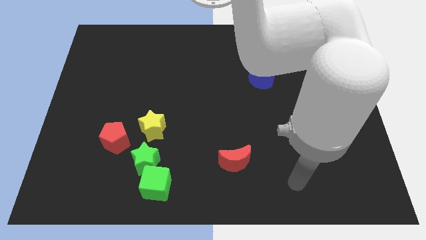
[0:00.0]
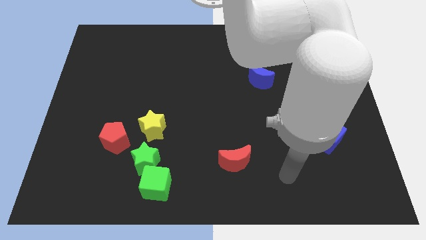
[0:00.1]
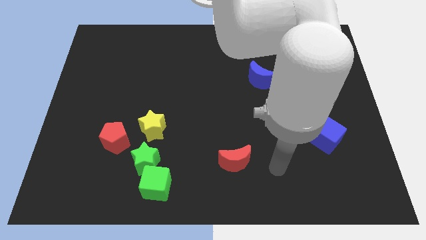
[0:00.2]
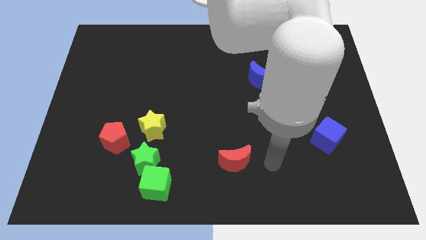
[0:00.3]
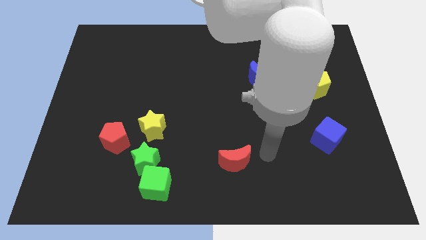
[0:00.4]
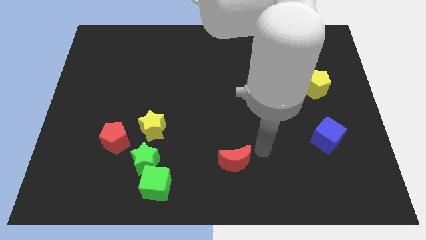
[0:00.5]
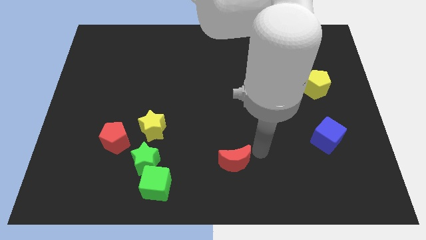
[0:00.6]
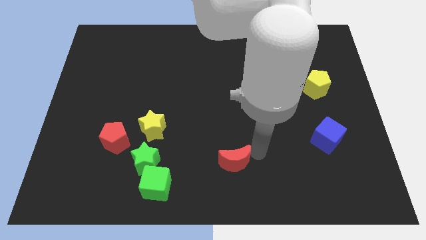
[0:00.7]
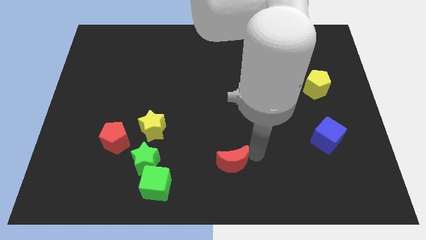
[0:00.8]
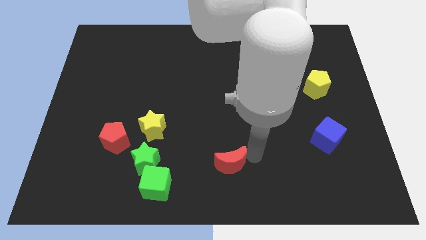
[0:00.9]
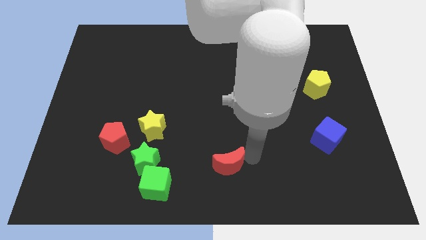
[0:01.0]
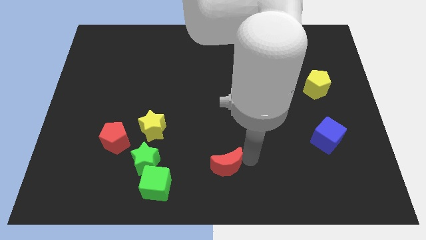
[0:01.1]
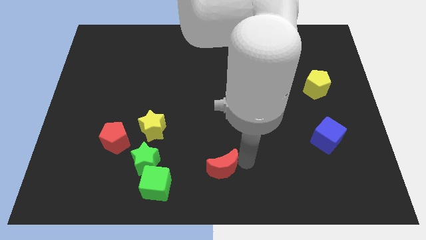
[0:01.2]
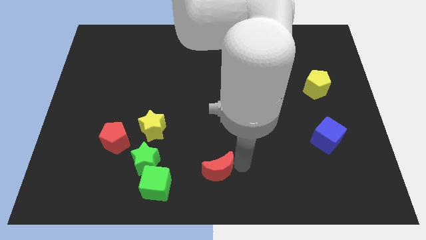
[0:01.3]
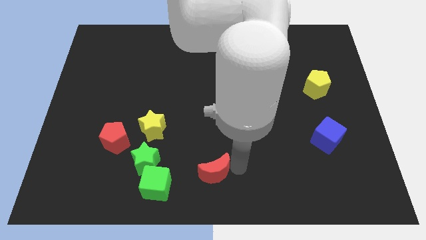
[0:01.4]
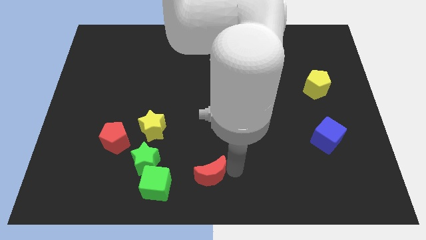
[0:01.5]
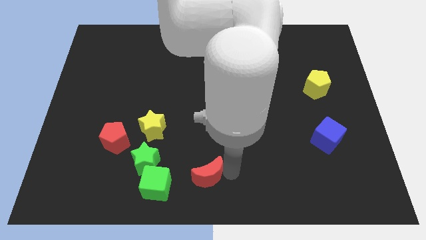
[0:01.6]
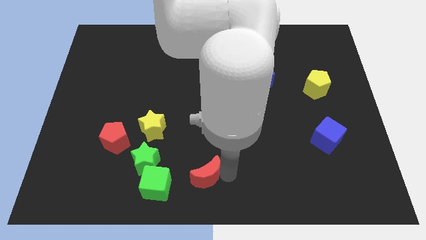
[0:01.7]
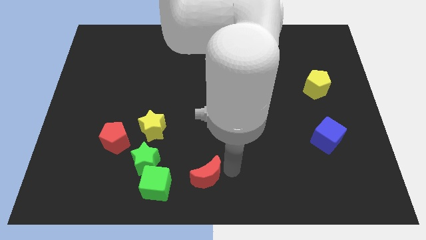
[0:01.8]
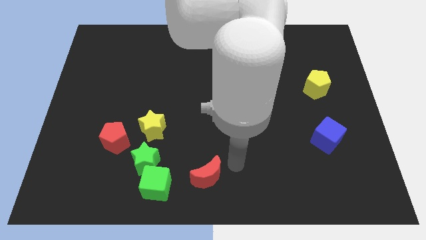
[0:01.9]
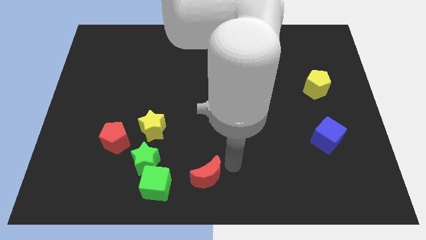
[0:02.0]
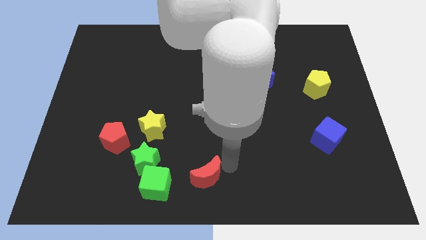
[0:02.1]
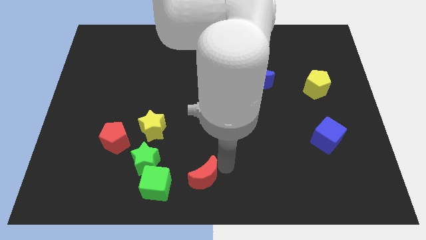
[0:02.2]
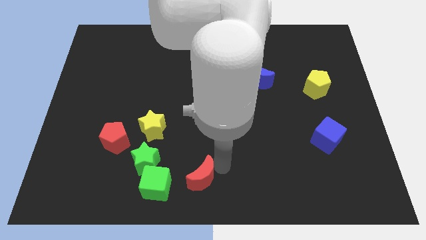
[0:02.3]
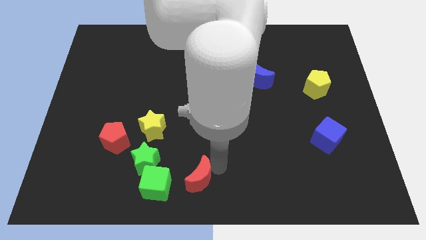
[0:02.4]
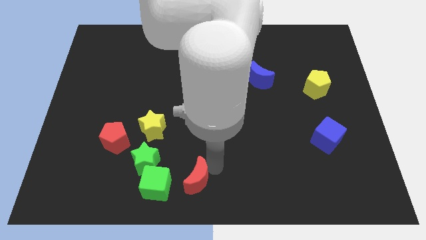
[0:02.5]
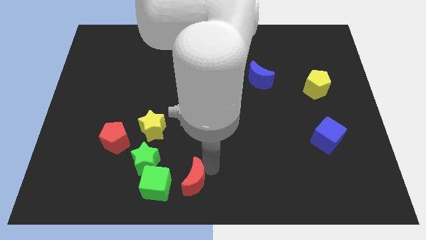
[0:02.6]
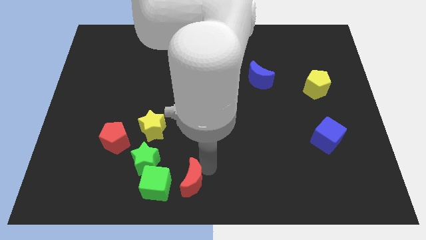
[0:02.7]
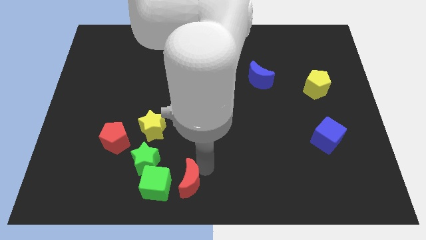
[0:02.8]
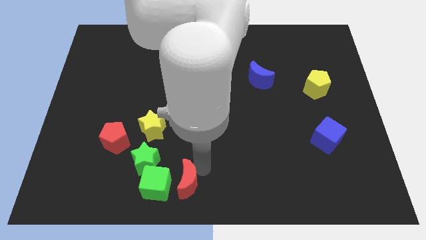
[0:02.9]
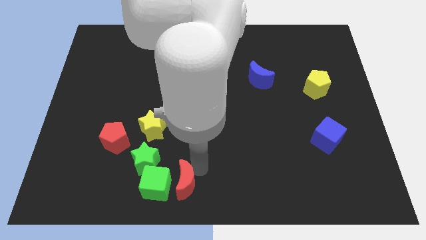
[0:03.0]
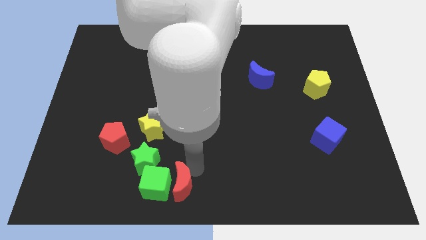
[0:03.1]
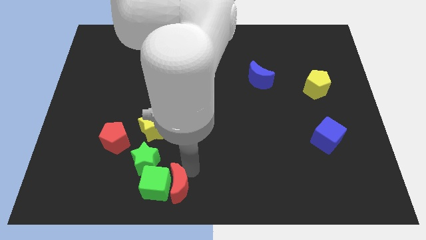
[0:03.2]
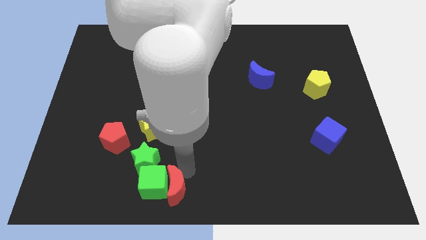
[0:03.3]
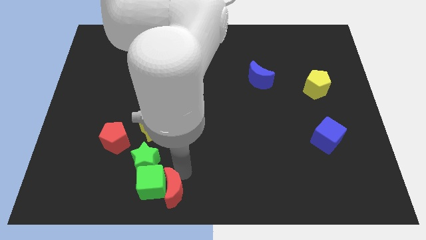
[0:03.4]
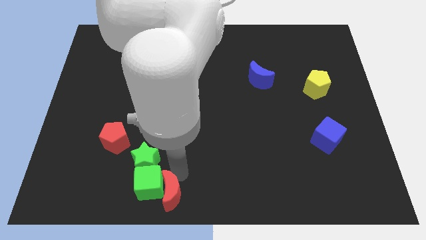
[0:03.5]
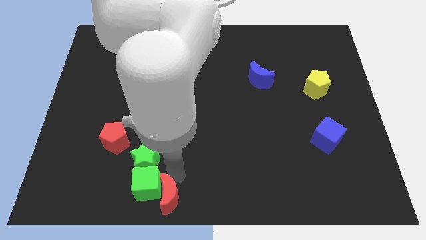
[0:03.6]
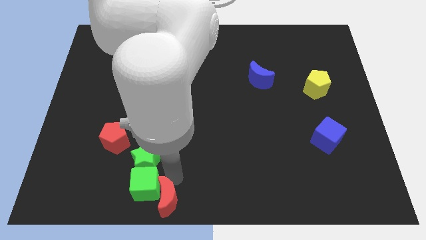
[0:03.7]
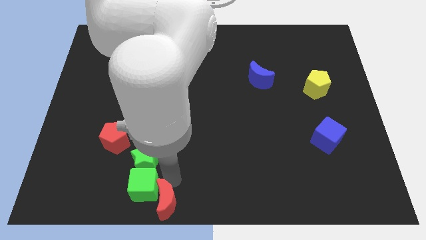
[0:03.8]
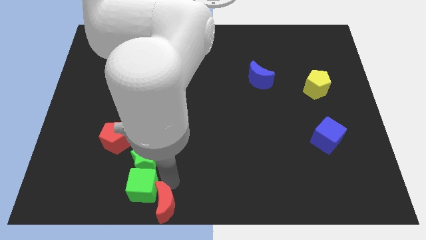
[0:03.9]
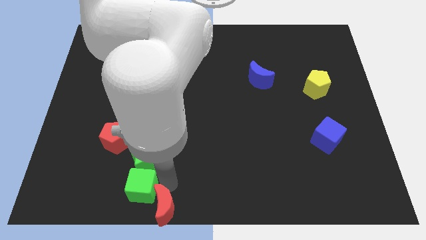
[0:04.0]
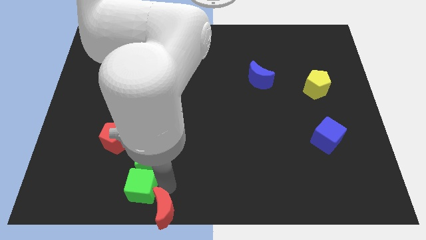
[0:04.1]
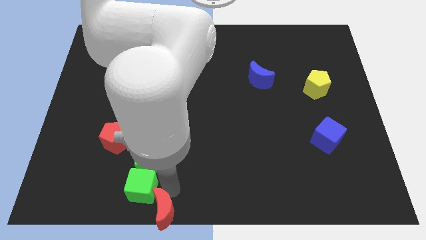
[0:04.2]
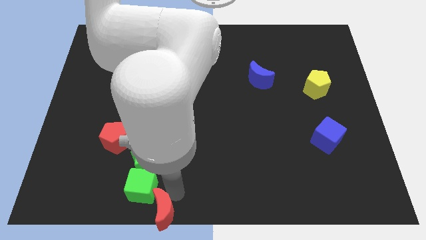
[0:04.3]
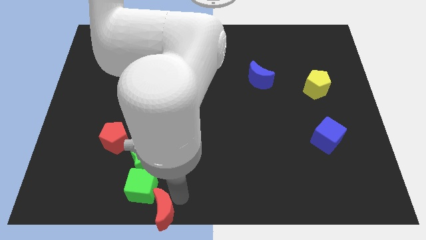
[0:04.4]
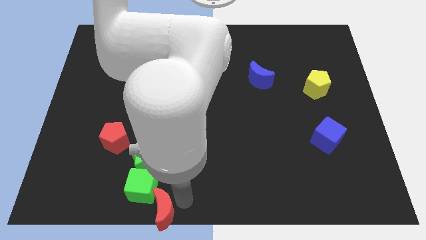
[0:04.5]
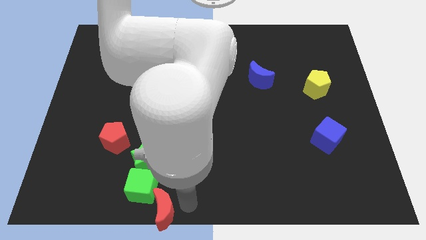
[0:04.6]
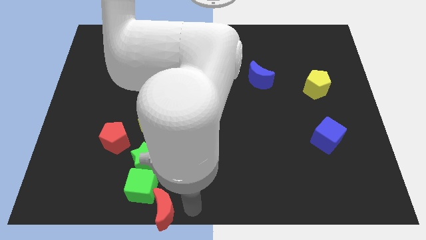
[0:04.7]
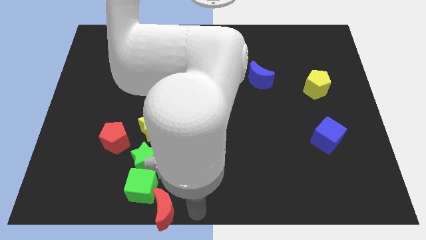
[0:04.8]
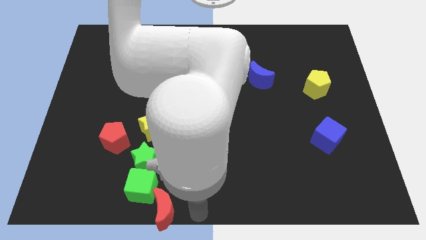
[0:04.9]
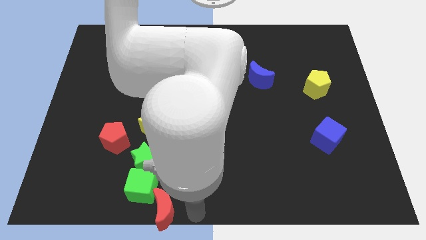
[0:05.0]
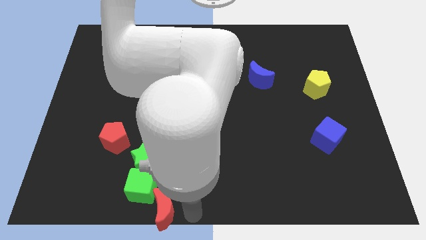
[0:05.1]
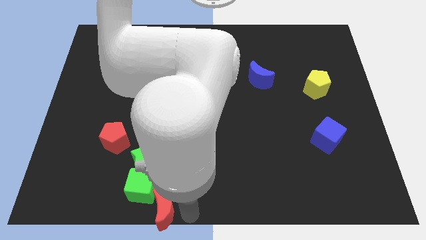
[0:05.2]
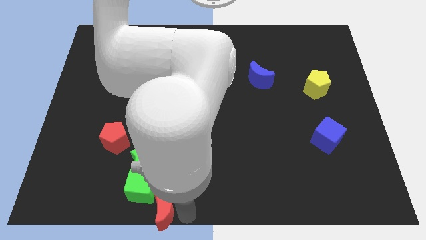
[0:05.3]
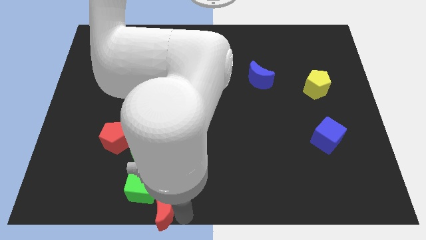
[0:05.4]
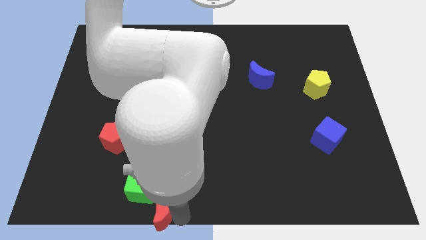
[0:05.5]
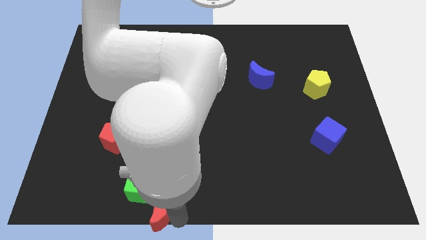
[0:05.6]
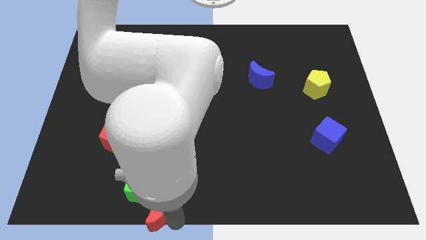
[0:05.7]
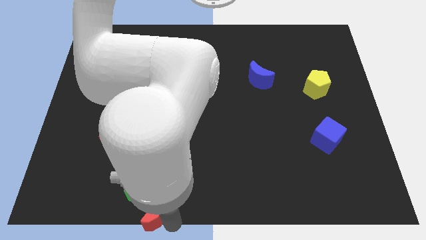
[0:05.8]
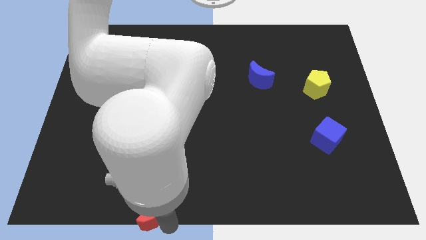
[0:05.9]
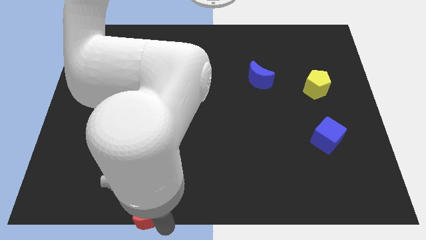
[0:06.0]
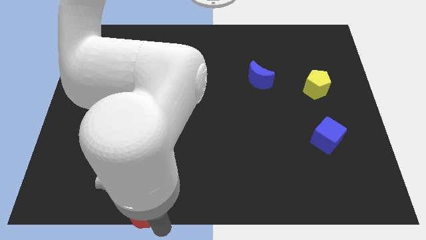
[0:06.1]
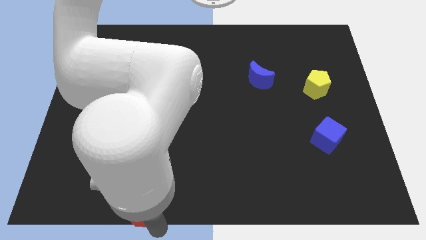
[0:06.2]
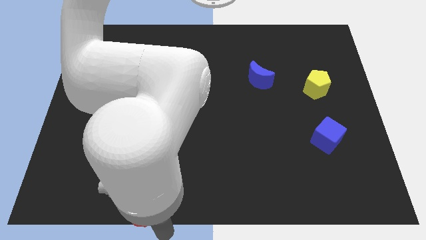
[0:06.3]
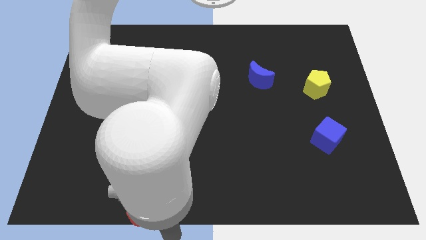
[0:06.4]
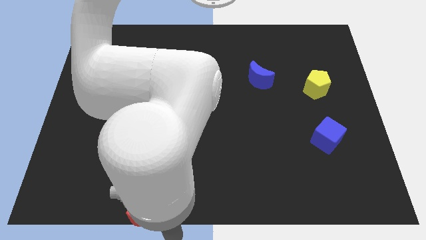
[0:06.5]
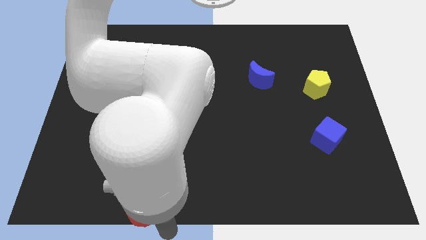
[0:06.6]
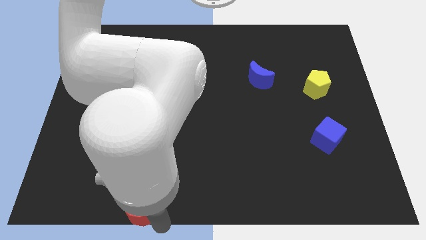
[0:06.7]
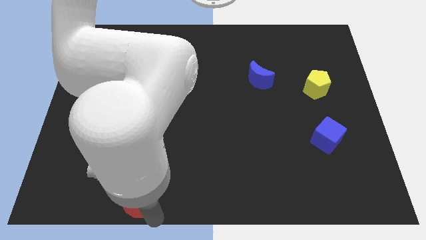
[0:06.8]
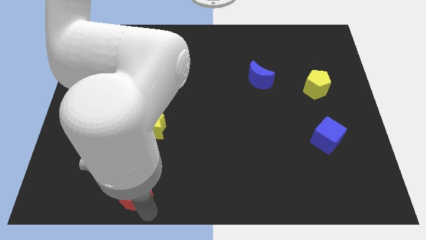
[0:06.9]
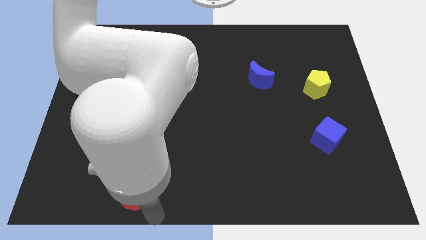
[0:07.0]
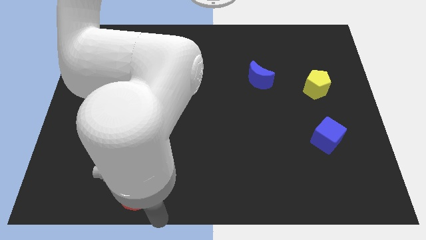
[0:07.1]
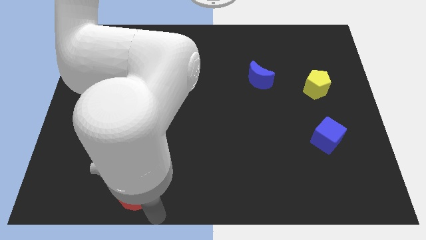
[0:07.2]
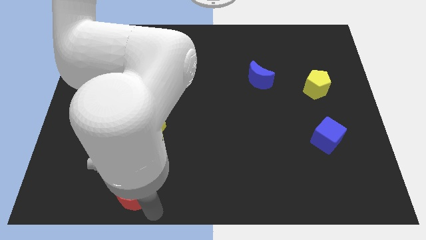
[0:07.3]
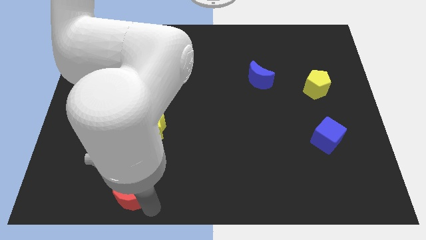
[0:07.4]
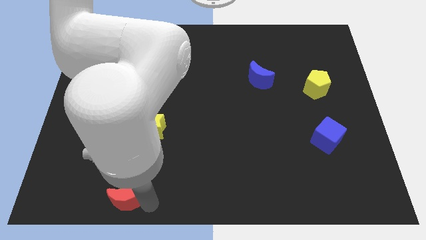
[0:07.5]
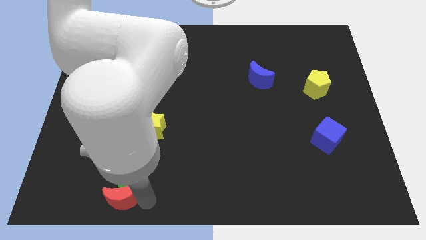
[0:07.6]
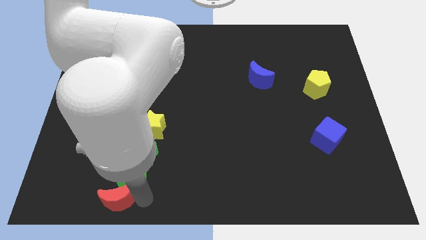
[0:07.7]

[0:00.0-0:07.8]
move the red moon to the left

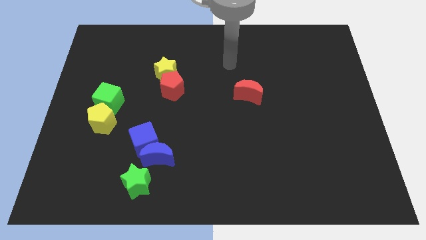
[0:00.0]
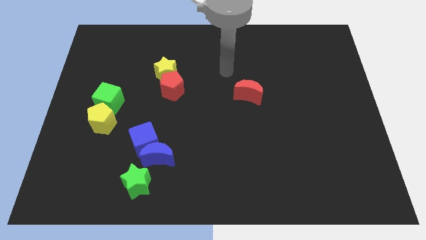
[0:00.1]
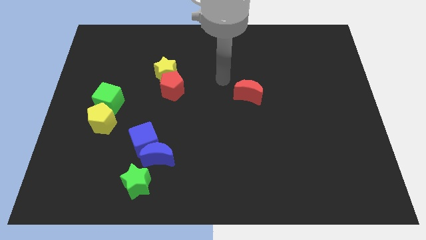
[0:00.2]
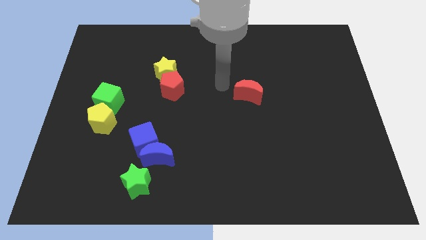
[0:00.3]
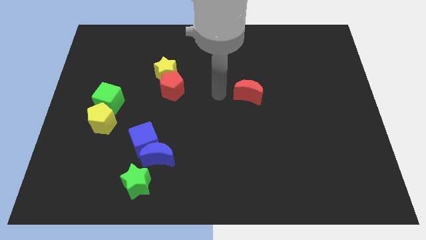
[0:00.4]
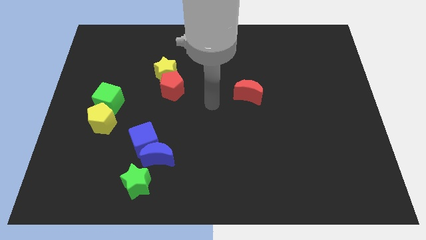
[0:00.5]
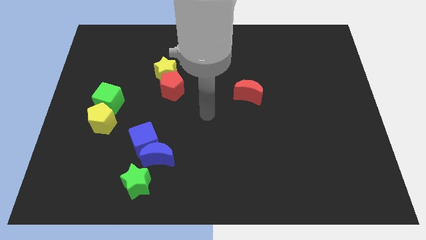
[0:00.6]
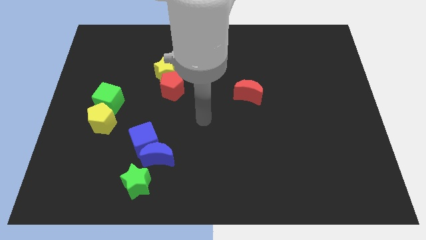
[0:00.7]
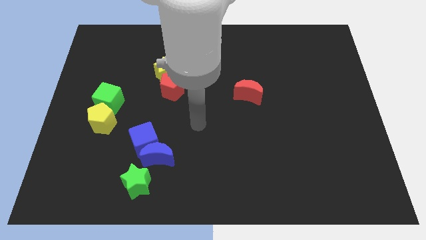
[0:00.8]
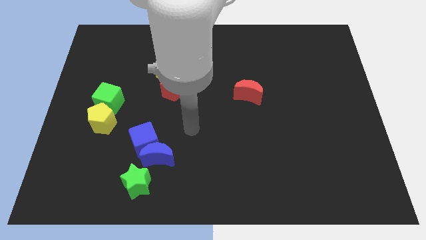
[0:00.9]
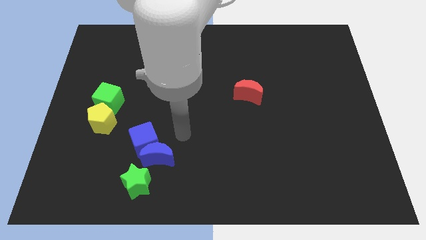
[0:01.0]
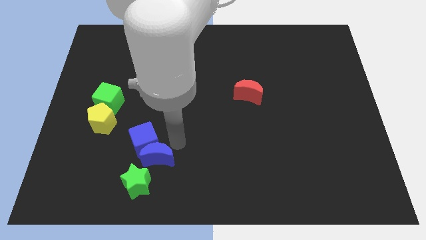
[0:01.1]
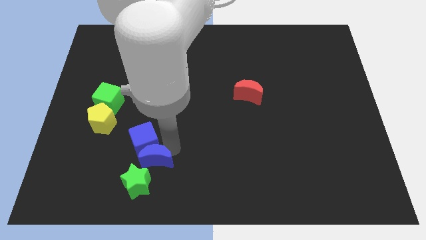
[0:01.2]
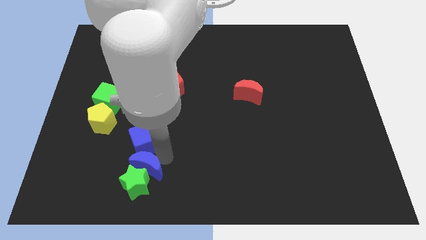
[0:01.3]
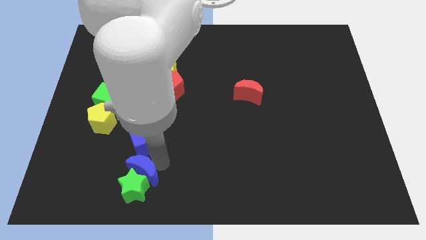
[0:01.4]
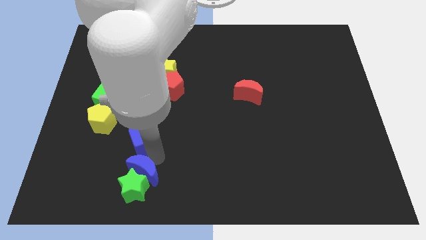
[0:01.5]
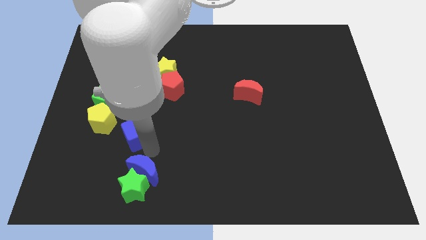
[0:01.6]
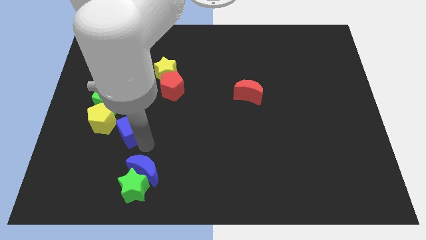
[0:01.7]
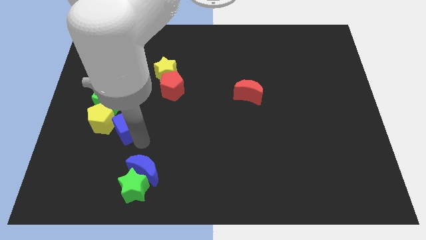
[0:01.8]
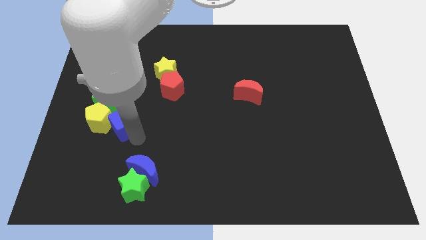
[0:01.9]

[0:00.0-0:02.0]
move the blue cube up and left a little bit
